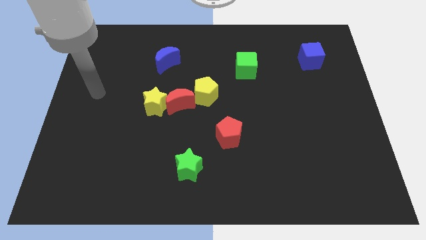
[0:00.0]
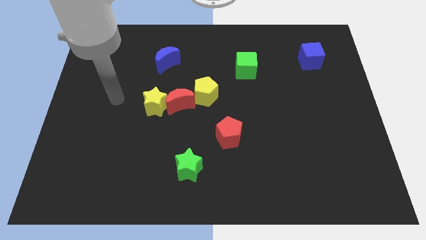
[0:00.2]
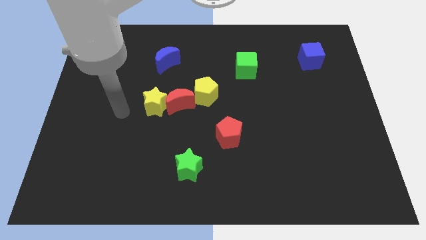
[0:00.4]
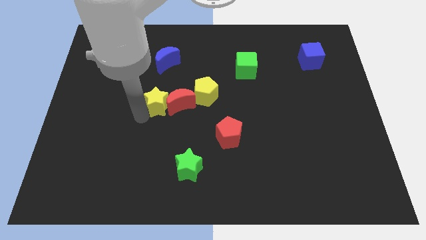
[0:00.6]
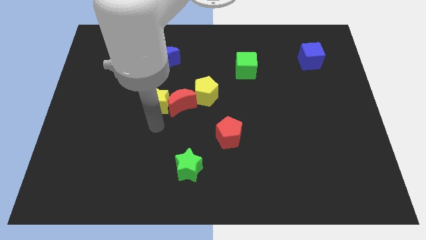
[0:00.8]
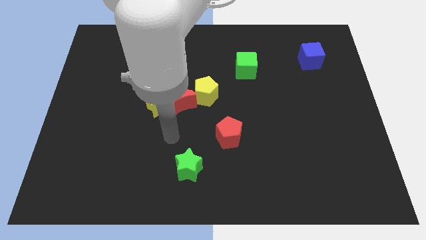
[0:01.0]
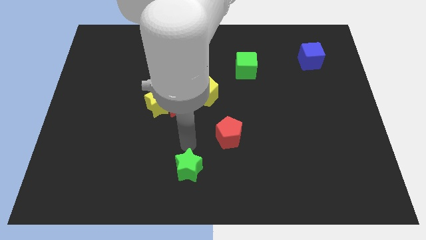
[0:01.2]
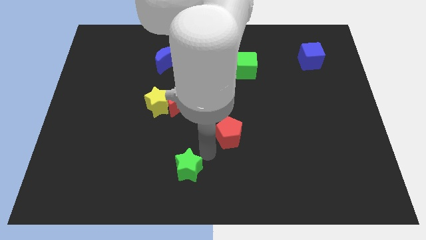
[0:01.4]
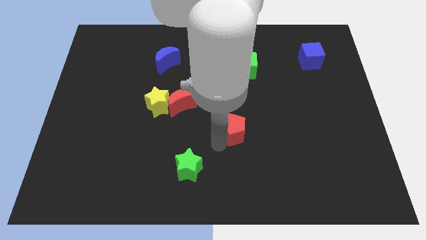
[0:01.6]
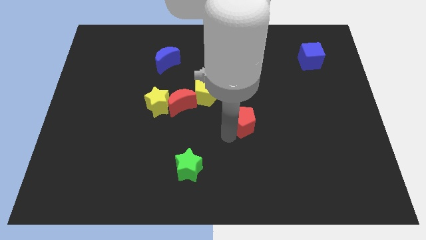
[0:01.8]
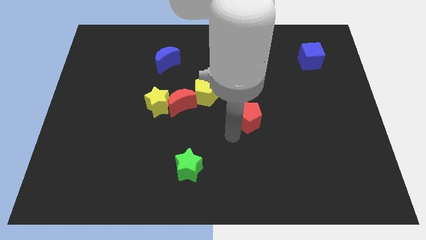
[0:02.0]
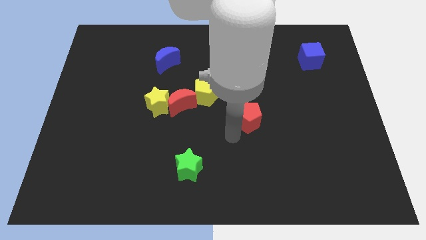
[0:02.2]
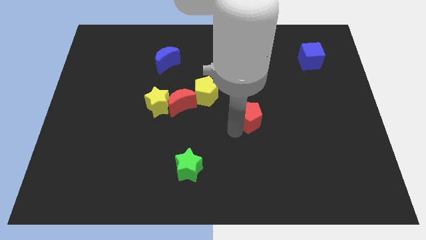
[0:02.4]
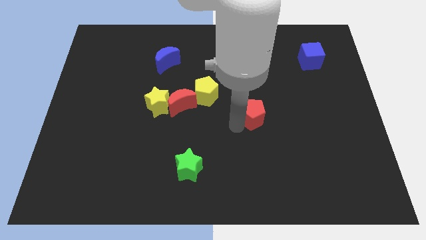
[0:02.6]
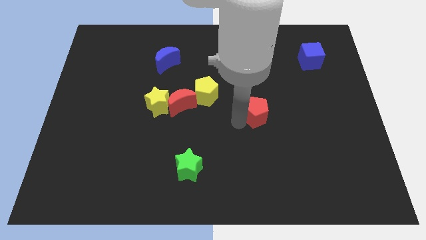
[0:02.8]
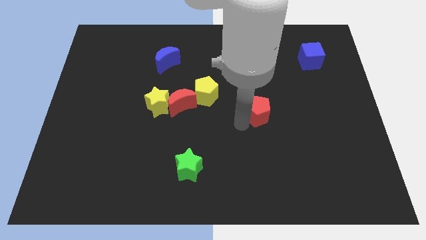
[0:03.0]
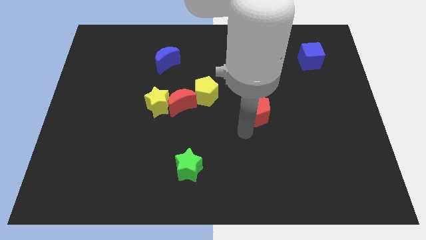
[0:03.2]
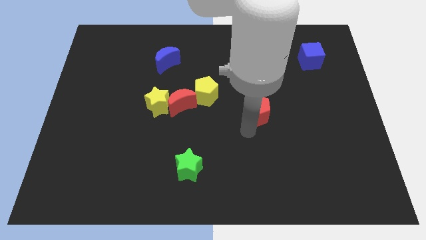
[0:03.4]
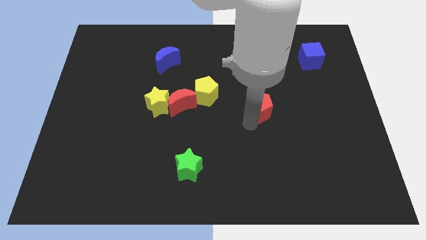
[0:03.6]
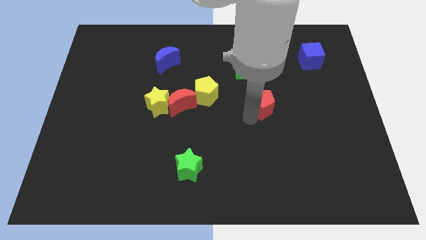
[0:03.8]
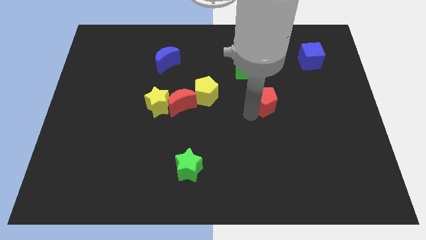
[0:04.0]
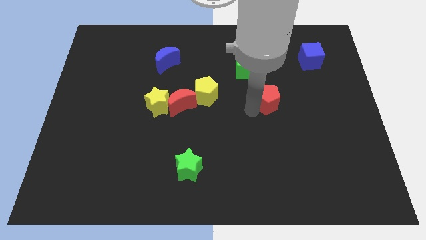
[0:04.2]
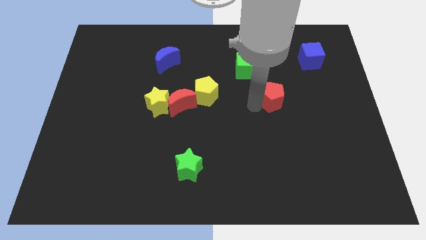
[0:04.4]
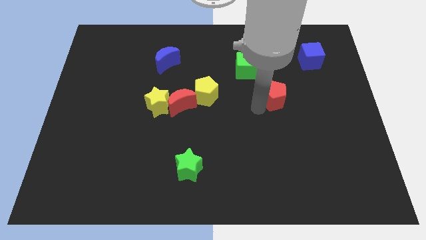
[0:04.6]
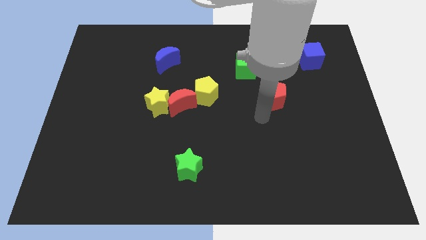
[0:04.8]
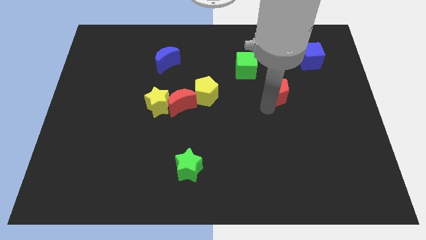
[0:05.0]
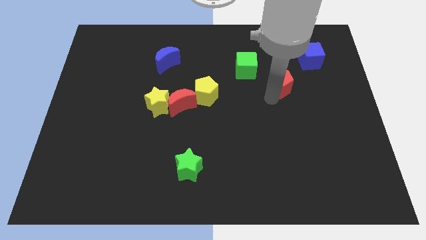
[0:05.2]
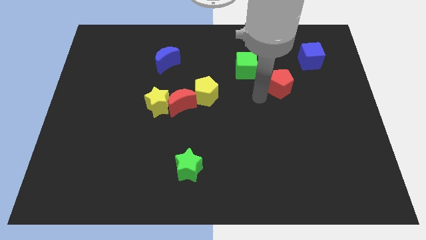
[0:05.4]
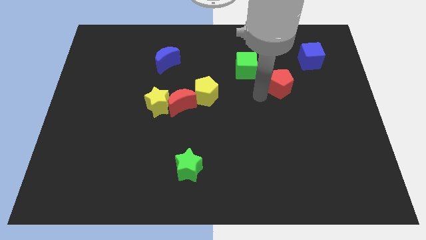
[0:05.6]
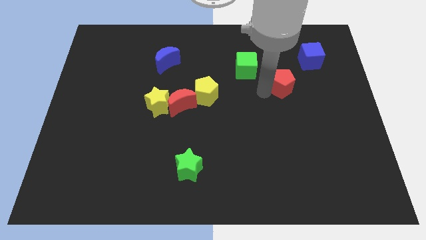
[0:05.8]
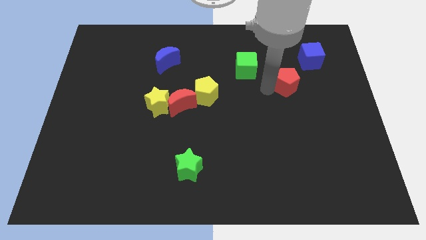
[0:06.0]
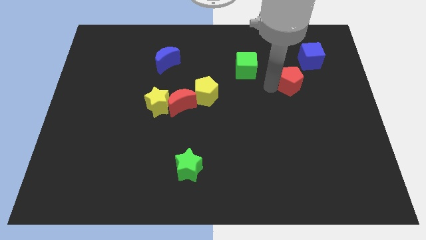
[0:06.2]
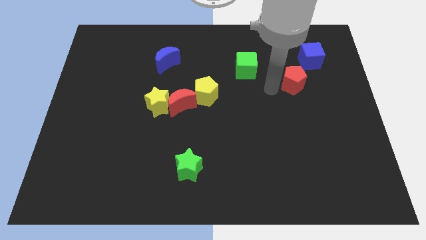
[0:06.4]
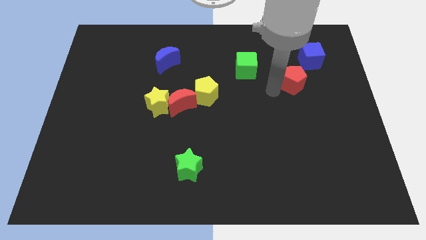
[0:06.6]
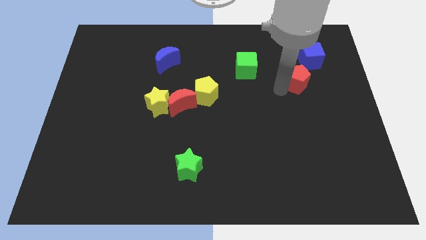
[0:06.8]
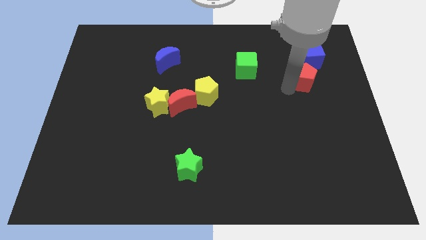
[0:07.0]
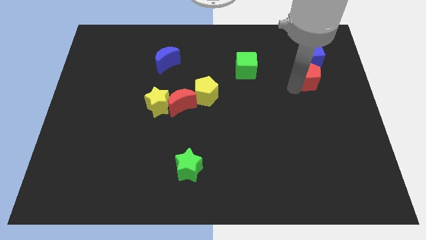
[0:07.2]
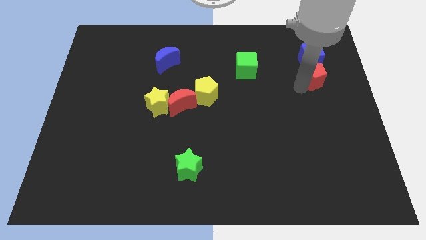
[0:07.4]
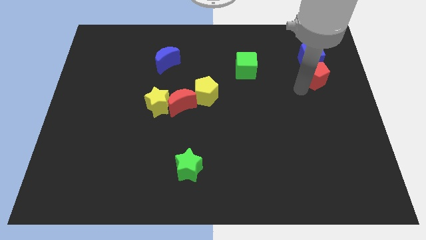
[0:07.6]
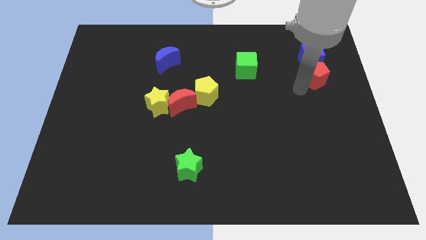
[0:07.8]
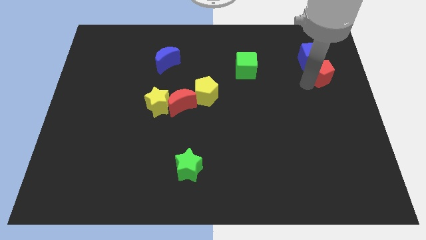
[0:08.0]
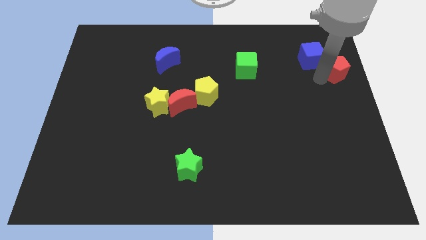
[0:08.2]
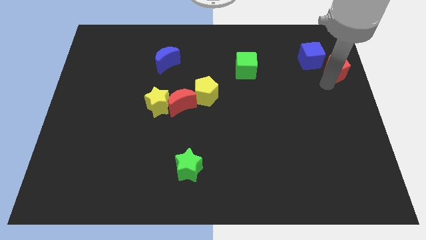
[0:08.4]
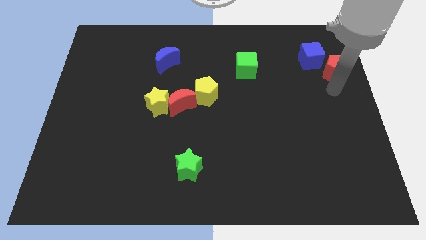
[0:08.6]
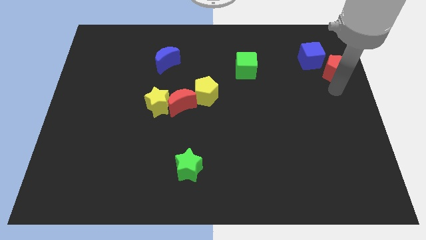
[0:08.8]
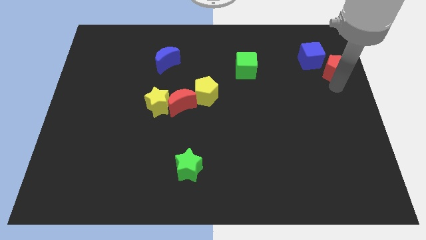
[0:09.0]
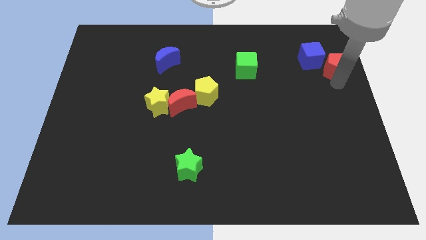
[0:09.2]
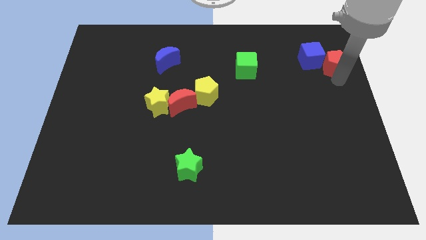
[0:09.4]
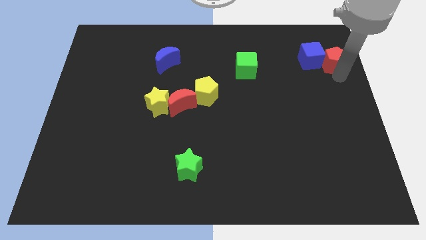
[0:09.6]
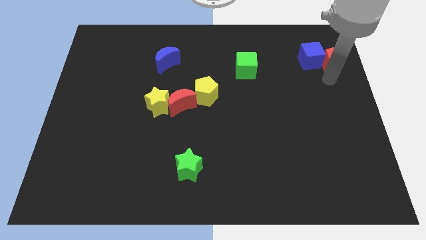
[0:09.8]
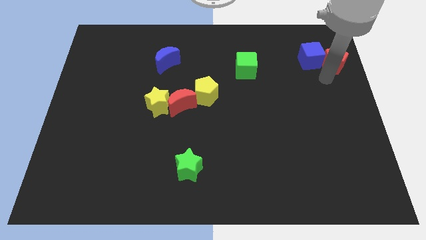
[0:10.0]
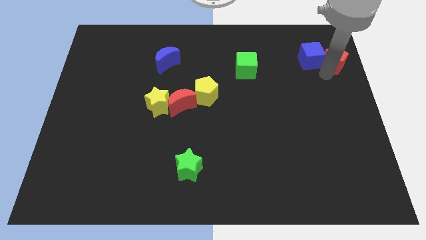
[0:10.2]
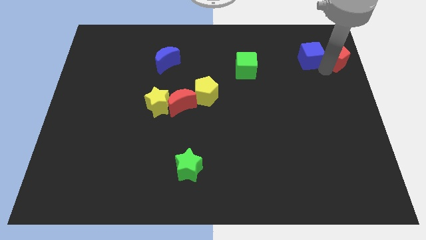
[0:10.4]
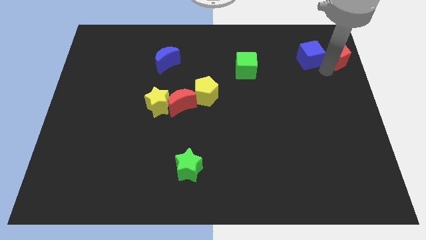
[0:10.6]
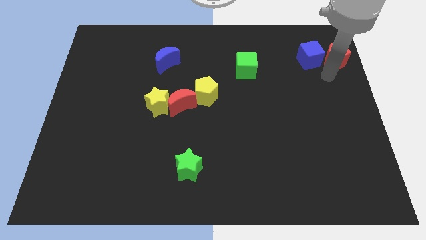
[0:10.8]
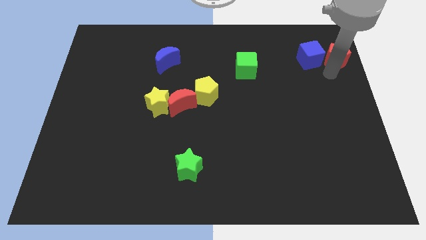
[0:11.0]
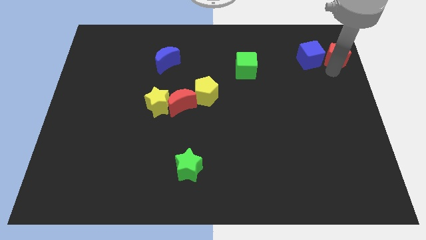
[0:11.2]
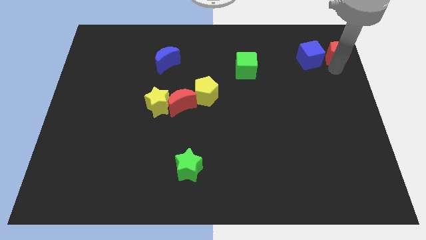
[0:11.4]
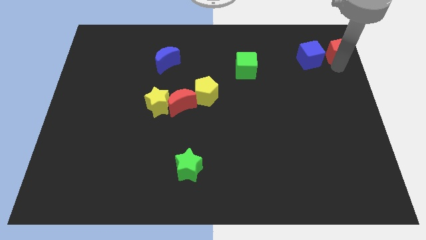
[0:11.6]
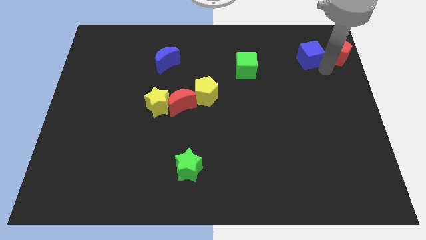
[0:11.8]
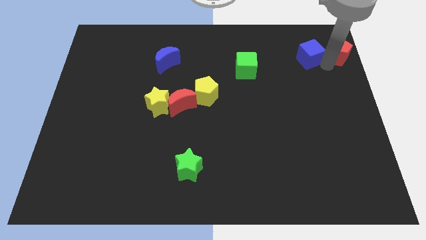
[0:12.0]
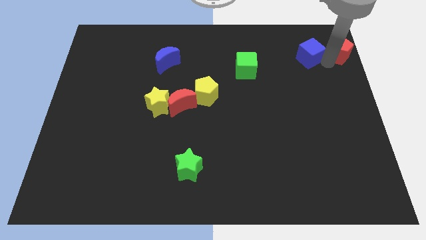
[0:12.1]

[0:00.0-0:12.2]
put the red pentagon to the upper right corner
